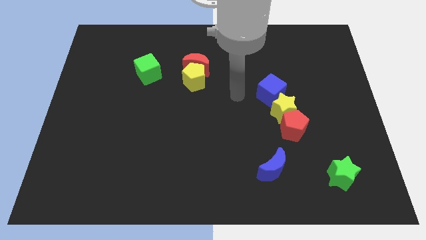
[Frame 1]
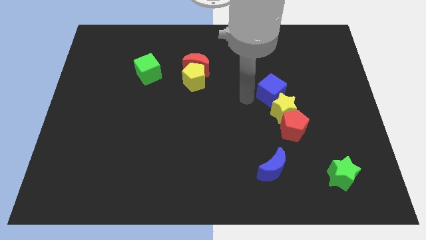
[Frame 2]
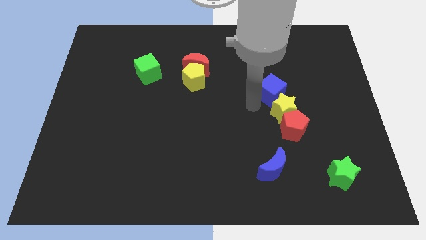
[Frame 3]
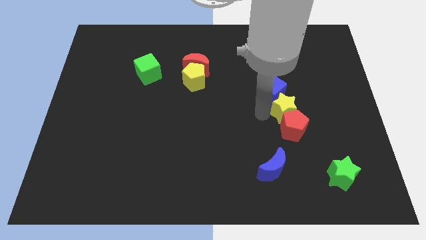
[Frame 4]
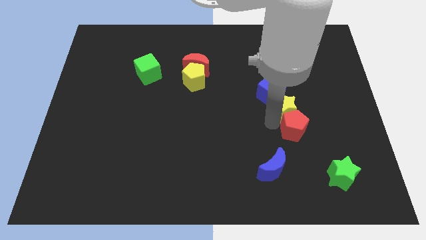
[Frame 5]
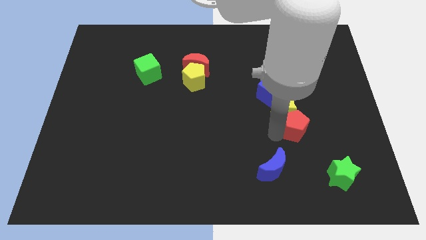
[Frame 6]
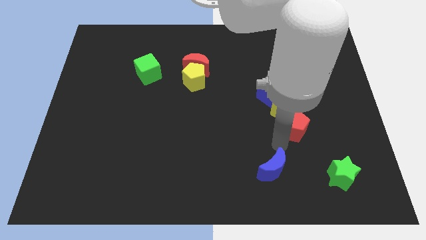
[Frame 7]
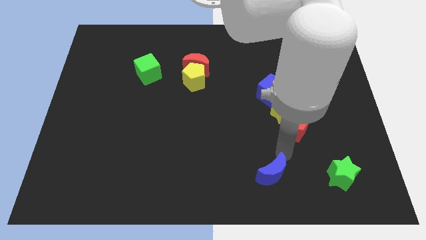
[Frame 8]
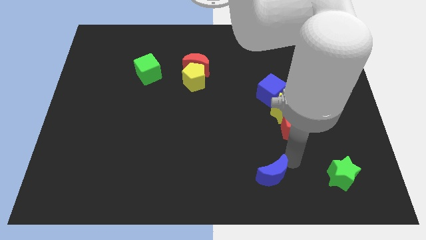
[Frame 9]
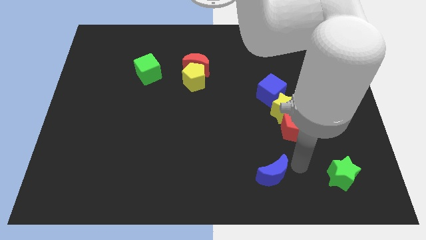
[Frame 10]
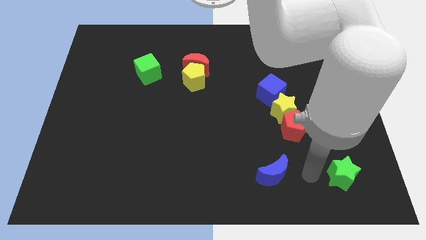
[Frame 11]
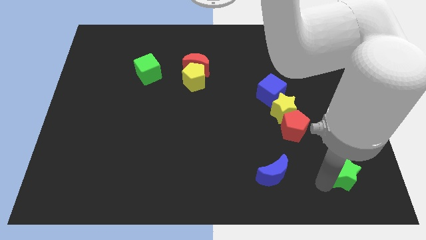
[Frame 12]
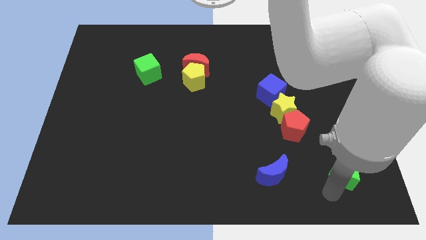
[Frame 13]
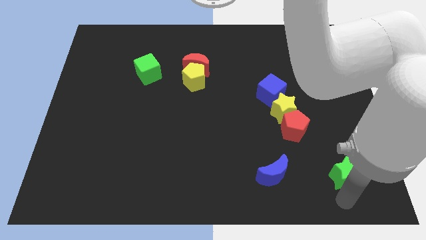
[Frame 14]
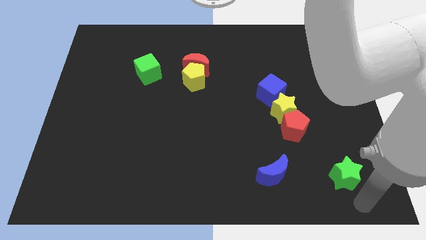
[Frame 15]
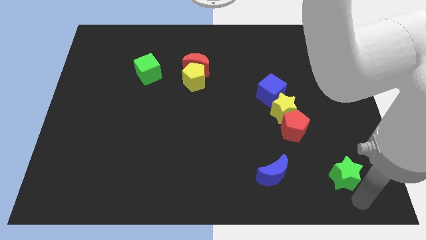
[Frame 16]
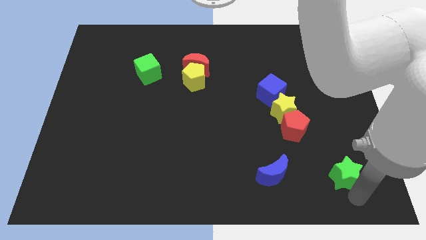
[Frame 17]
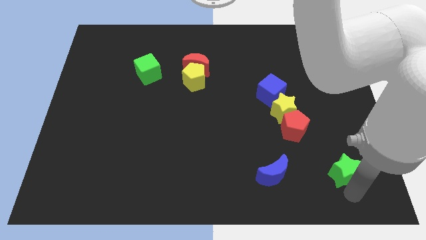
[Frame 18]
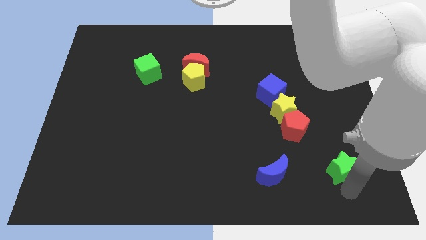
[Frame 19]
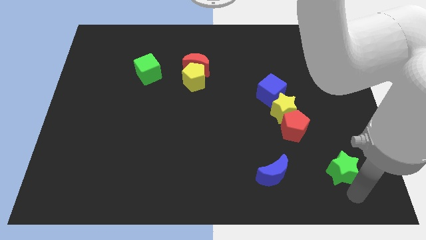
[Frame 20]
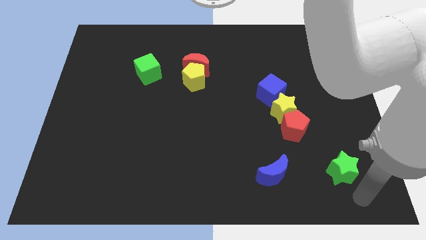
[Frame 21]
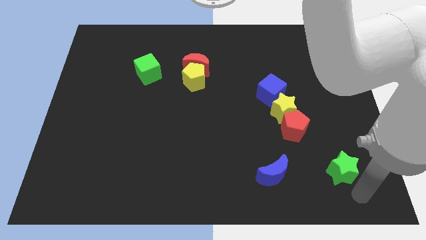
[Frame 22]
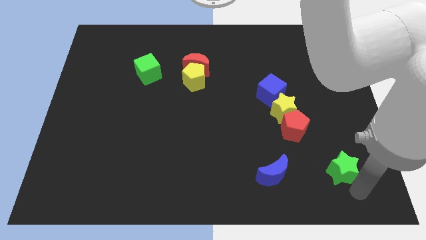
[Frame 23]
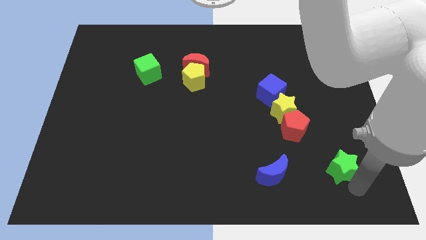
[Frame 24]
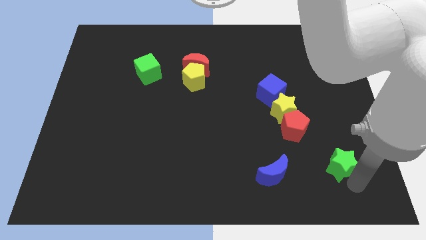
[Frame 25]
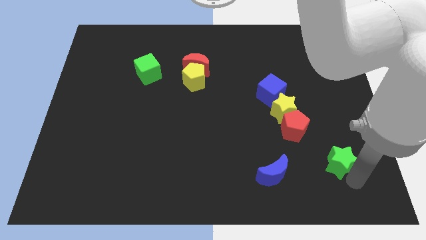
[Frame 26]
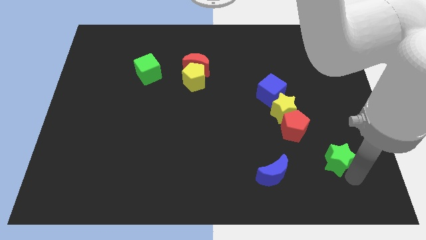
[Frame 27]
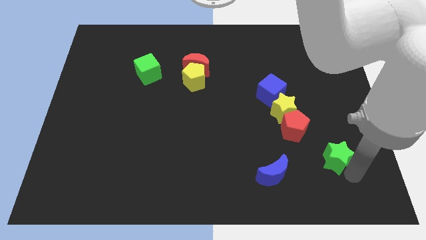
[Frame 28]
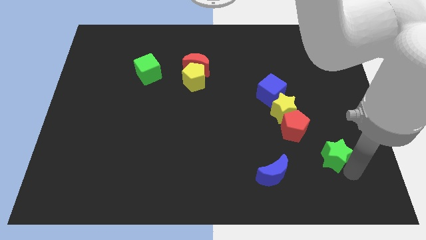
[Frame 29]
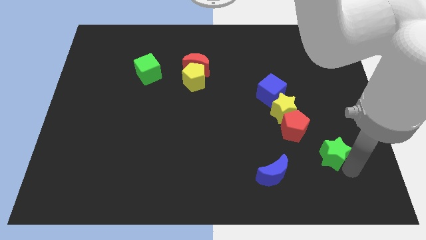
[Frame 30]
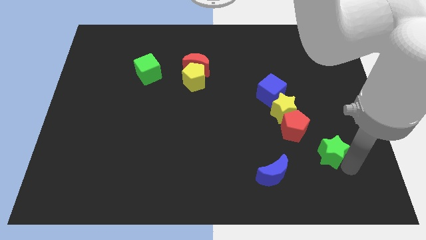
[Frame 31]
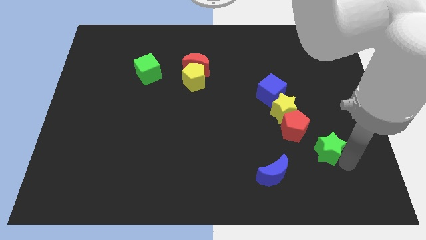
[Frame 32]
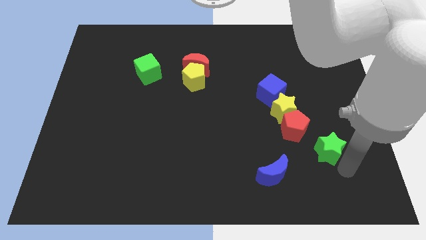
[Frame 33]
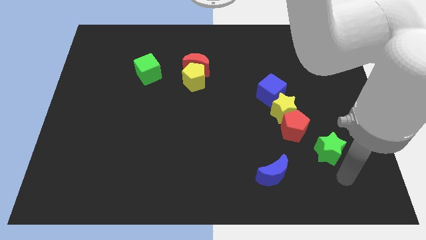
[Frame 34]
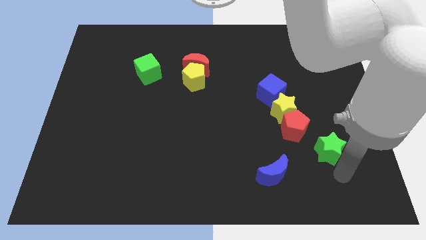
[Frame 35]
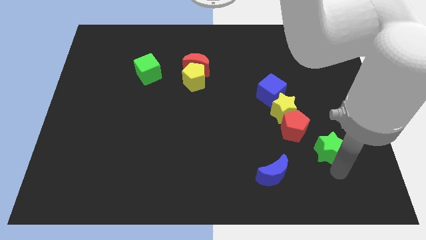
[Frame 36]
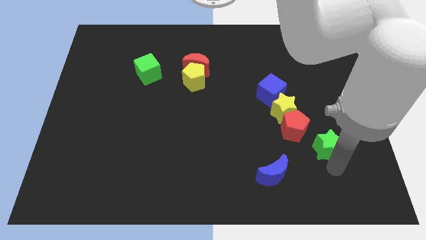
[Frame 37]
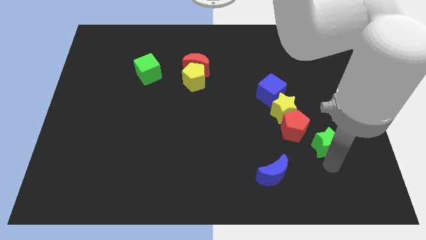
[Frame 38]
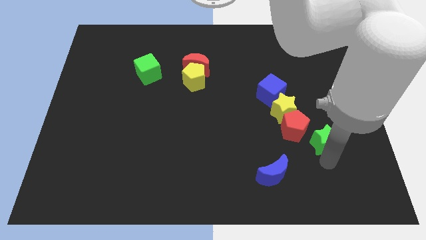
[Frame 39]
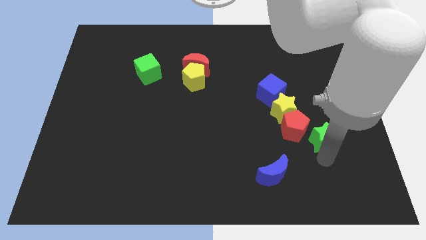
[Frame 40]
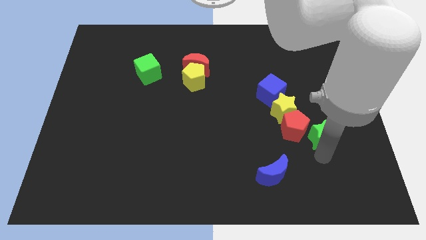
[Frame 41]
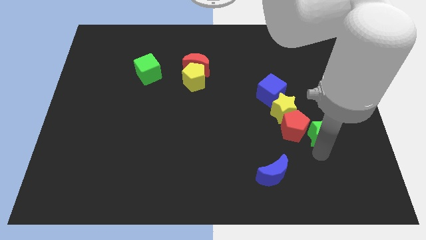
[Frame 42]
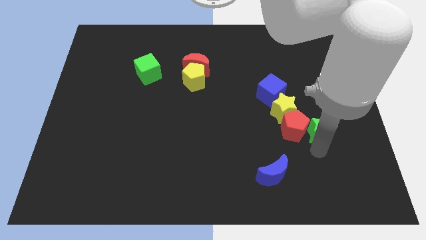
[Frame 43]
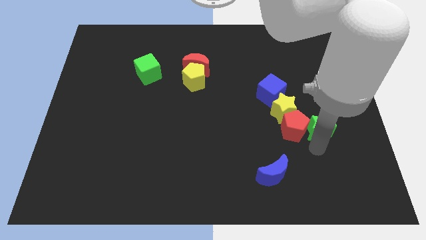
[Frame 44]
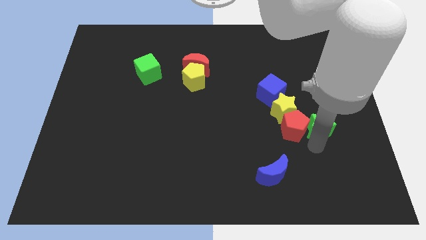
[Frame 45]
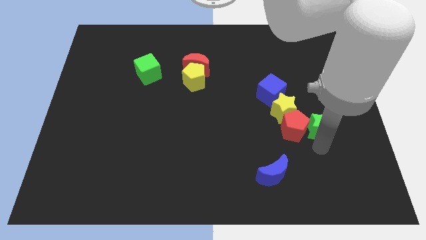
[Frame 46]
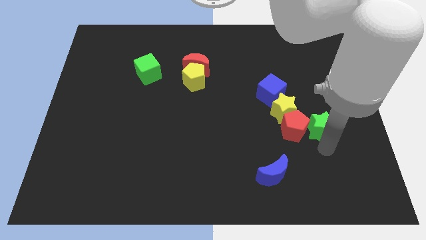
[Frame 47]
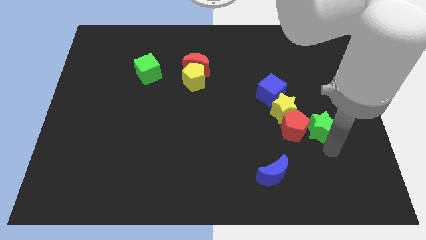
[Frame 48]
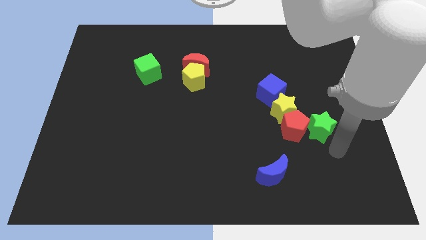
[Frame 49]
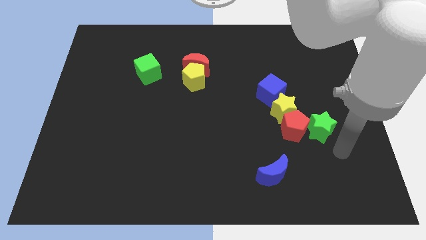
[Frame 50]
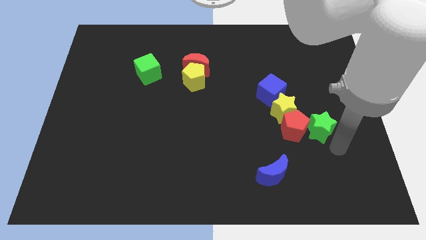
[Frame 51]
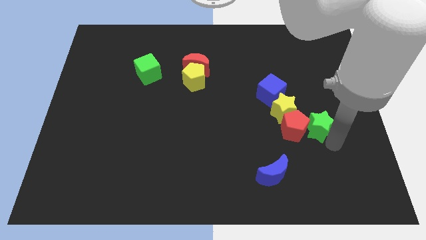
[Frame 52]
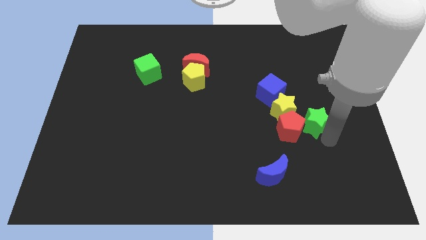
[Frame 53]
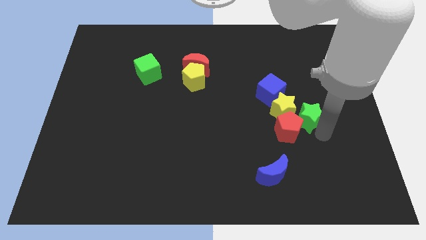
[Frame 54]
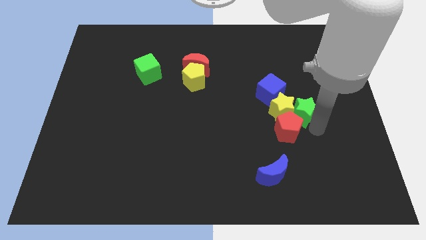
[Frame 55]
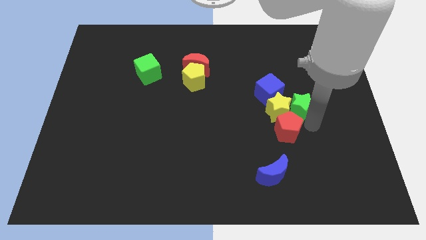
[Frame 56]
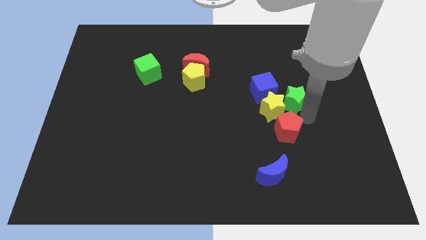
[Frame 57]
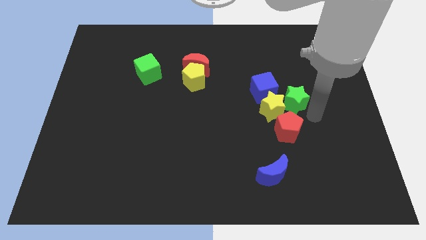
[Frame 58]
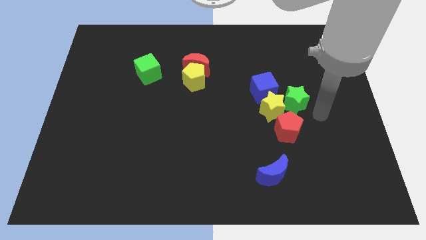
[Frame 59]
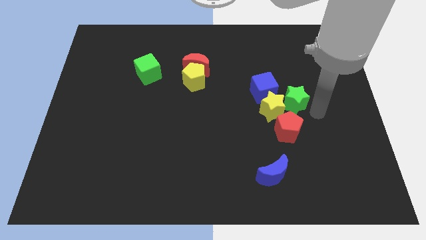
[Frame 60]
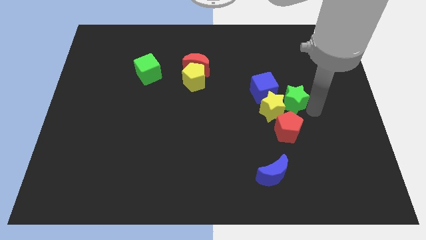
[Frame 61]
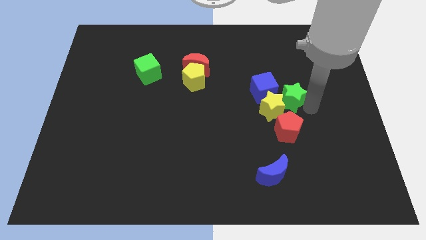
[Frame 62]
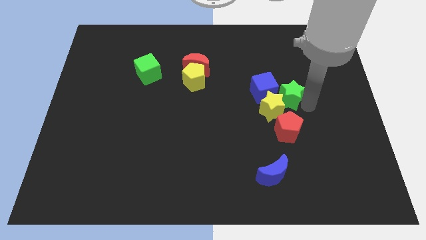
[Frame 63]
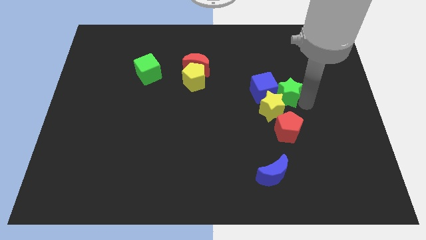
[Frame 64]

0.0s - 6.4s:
put the green star to the blue cube

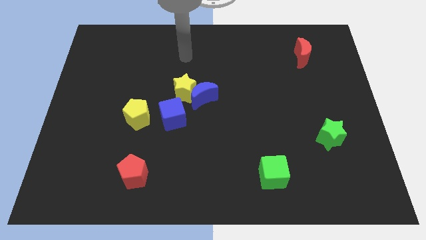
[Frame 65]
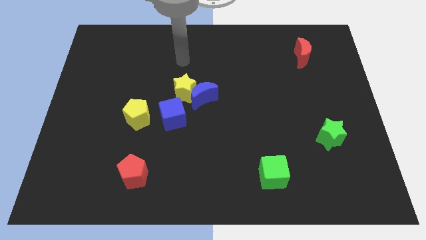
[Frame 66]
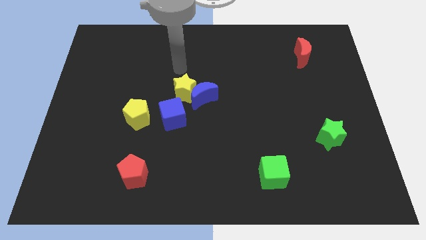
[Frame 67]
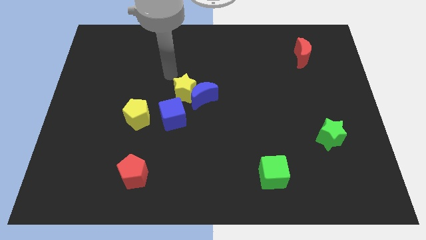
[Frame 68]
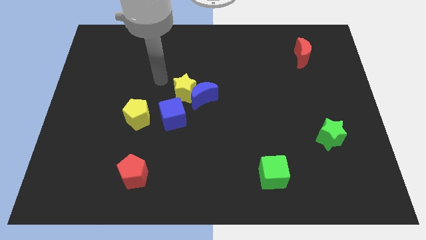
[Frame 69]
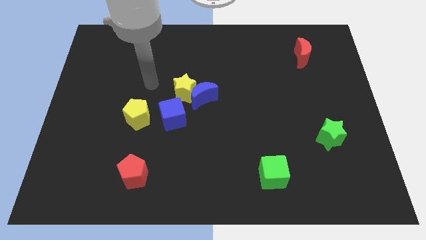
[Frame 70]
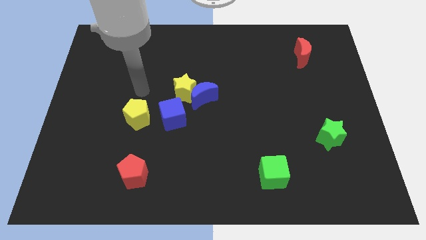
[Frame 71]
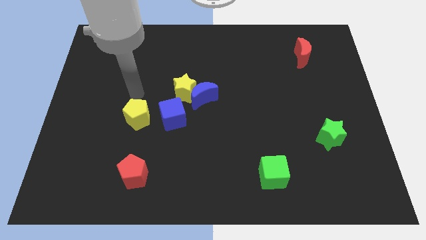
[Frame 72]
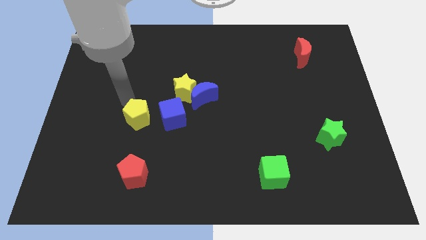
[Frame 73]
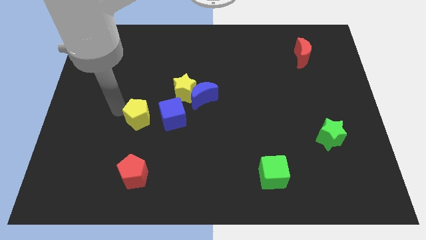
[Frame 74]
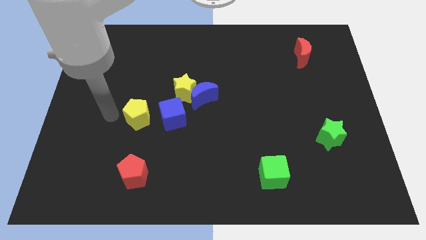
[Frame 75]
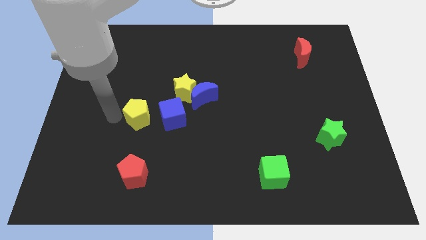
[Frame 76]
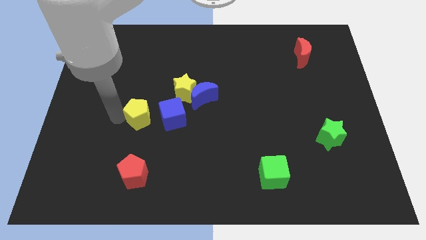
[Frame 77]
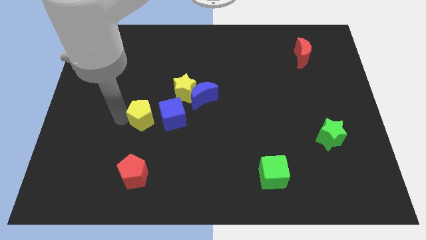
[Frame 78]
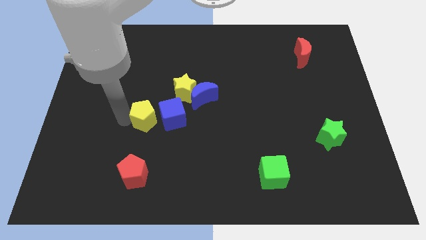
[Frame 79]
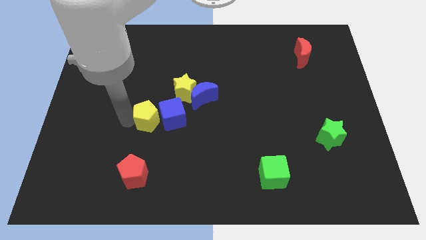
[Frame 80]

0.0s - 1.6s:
put the yellow pentagon close to the blue cube

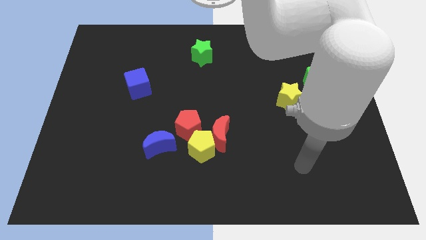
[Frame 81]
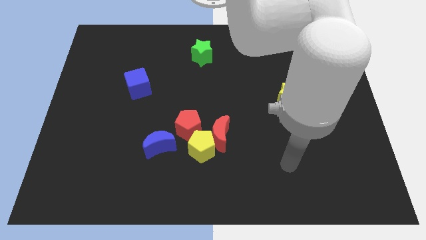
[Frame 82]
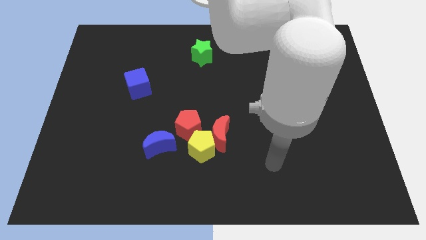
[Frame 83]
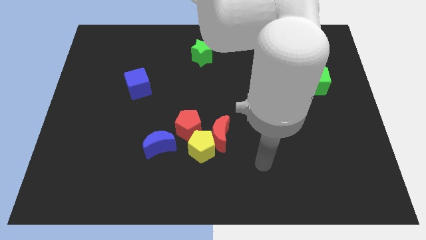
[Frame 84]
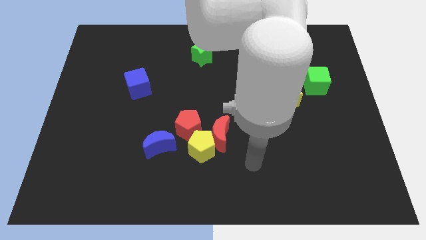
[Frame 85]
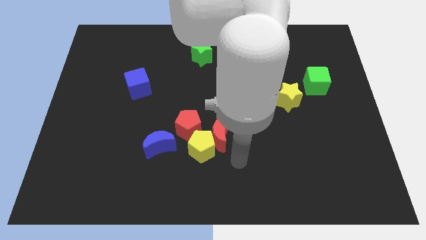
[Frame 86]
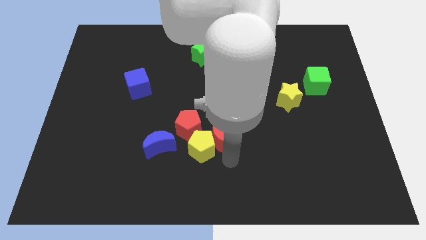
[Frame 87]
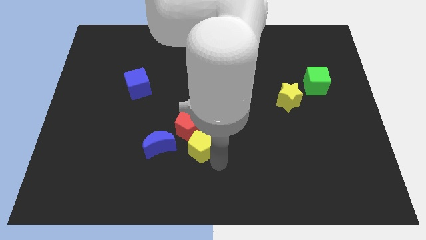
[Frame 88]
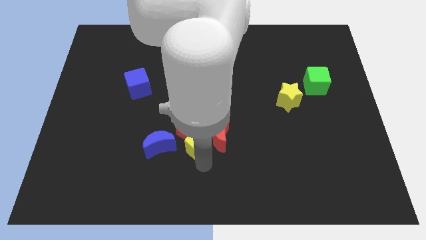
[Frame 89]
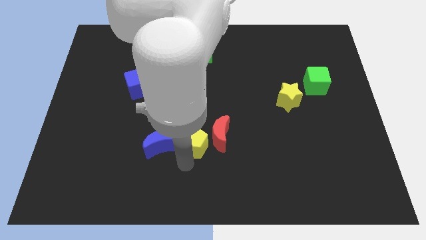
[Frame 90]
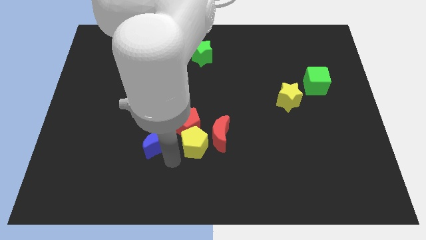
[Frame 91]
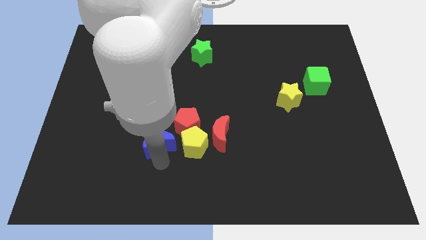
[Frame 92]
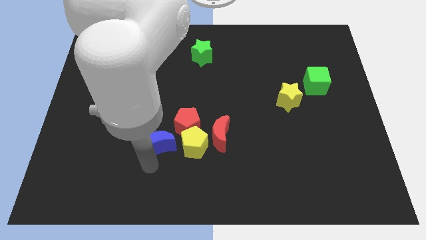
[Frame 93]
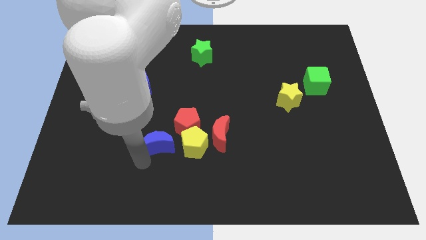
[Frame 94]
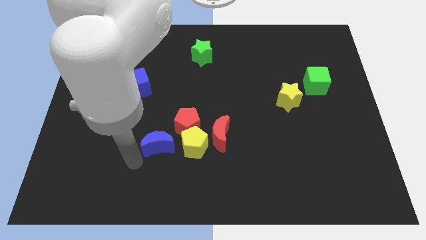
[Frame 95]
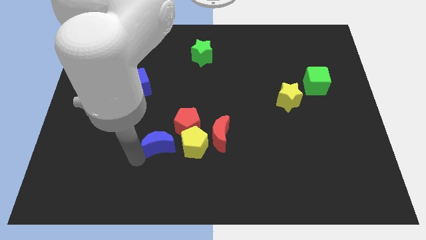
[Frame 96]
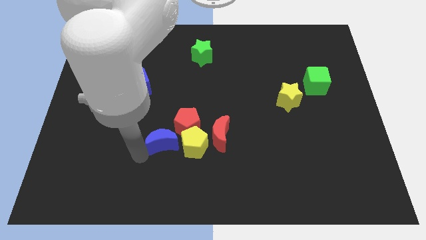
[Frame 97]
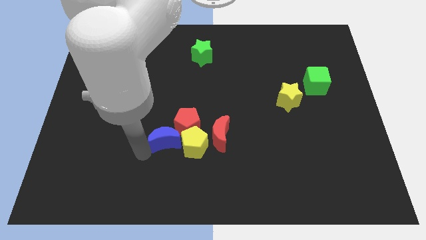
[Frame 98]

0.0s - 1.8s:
push the blue moon to the red pentagon
